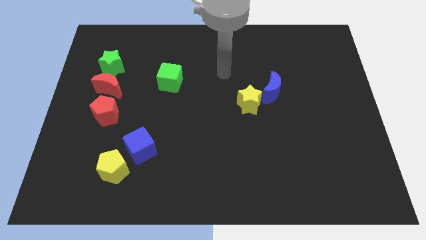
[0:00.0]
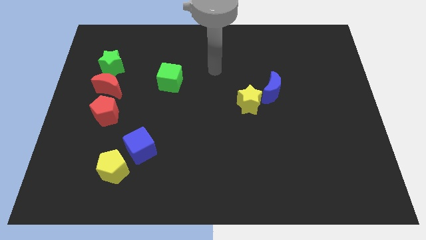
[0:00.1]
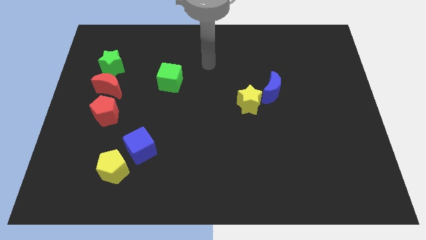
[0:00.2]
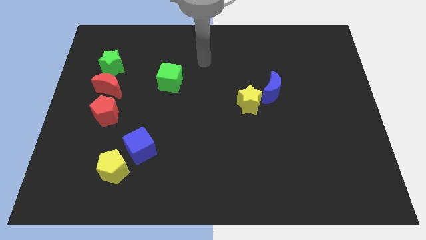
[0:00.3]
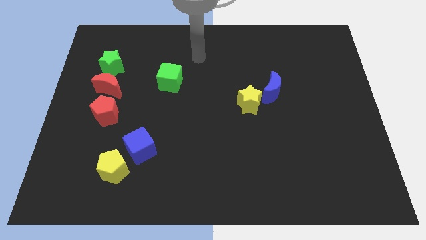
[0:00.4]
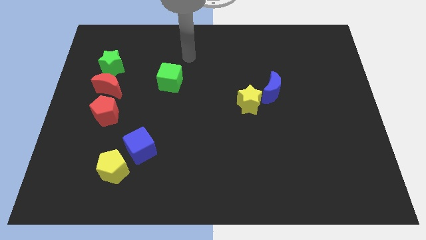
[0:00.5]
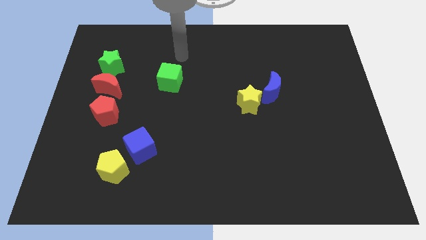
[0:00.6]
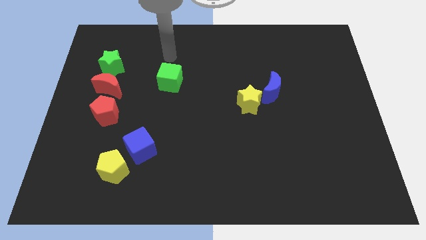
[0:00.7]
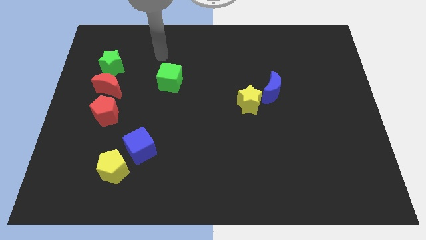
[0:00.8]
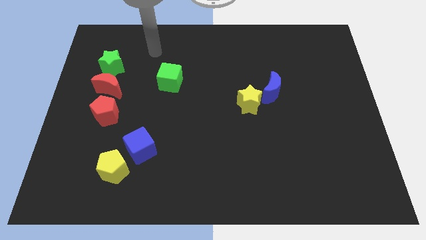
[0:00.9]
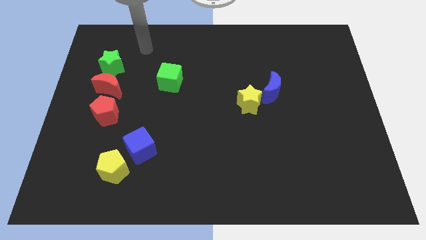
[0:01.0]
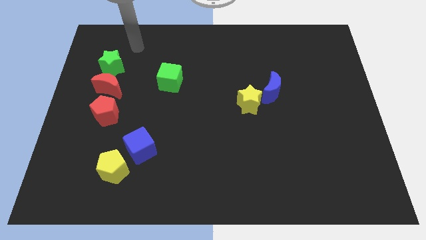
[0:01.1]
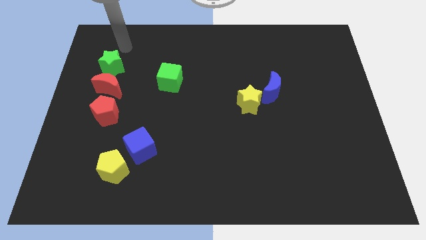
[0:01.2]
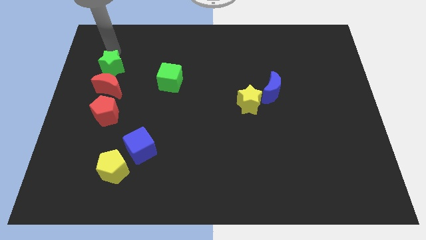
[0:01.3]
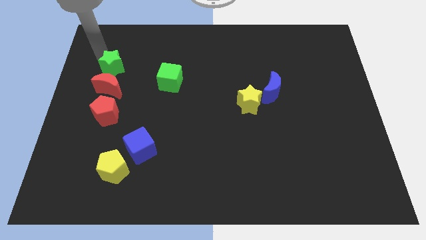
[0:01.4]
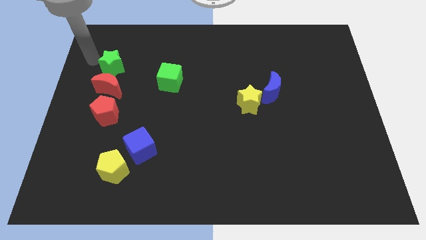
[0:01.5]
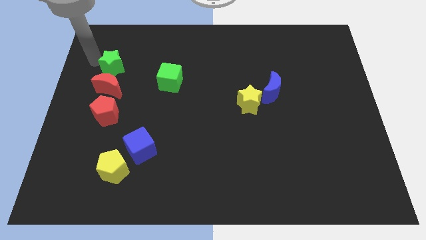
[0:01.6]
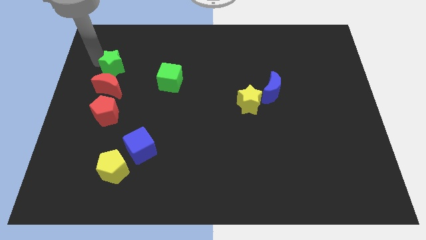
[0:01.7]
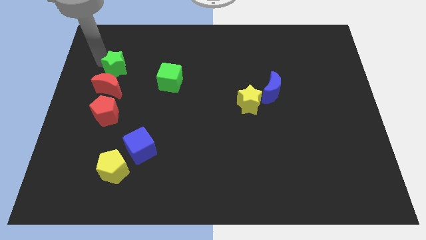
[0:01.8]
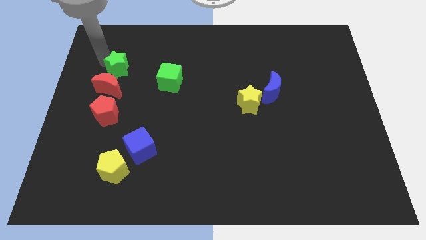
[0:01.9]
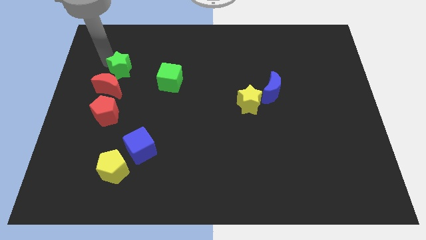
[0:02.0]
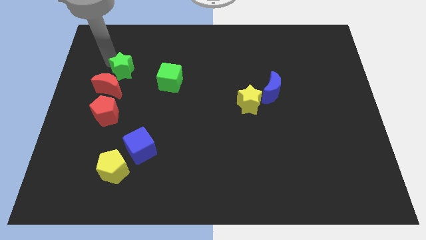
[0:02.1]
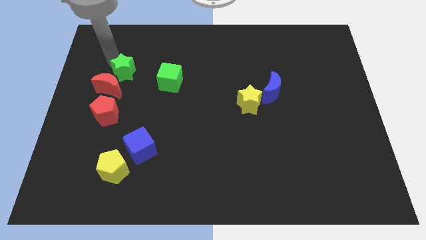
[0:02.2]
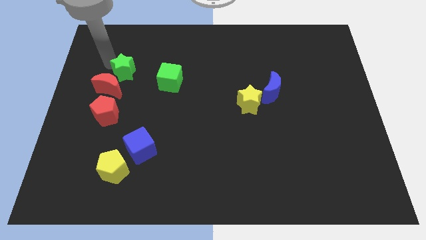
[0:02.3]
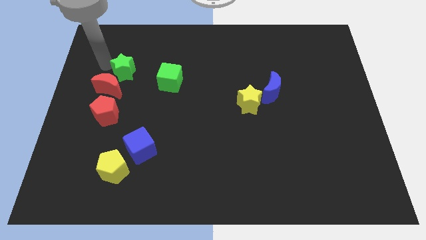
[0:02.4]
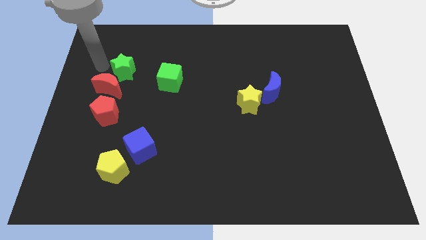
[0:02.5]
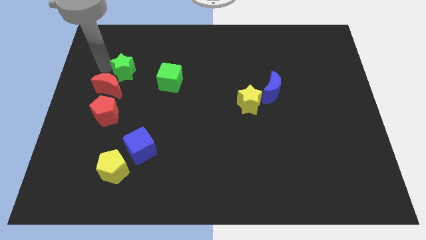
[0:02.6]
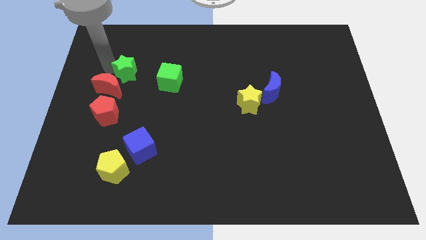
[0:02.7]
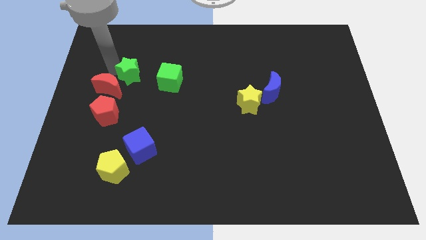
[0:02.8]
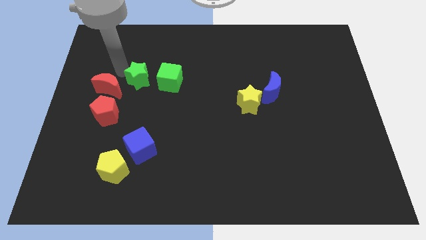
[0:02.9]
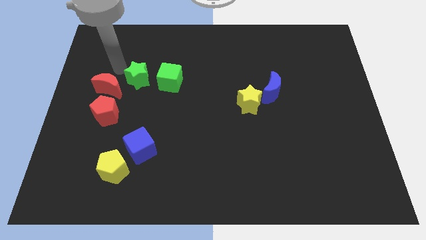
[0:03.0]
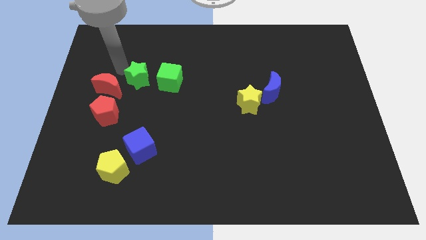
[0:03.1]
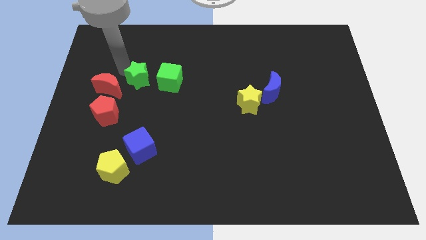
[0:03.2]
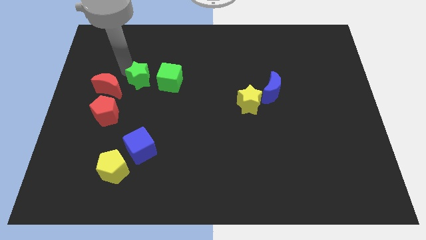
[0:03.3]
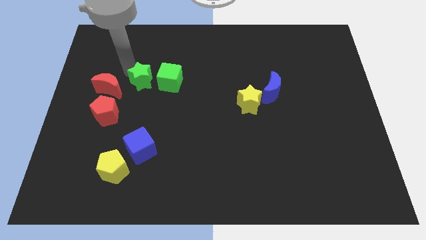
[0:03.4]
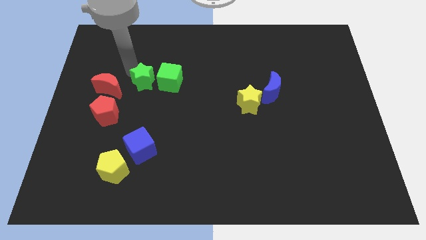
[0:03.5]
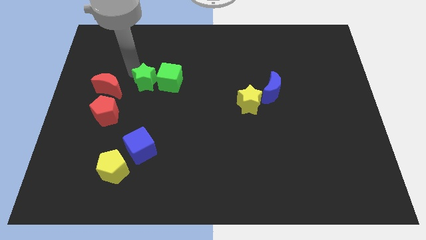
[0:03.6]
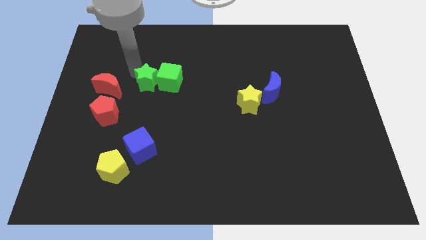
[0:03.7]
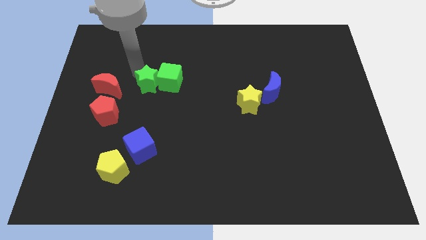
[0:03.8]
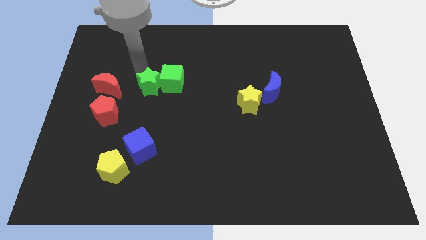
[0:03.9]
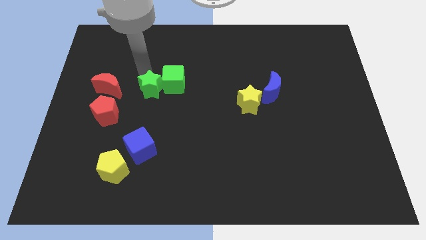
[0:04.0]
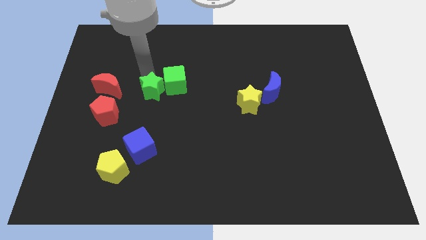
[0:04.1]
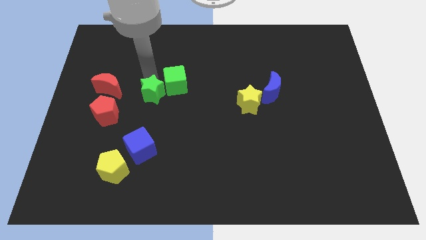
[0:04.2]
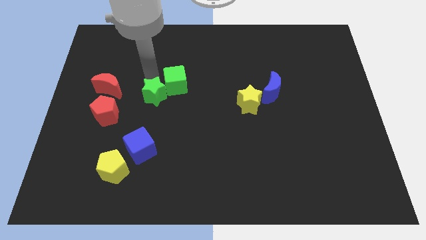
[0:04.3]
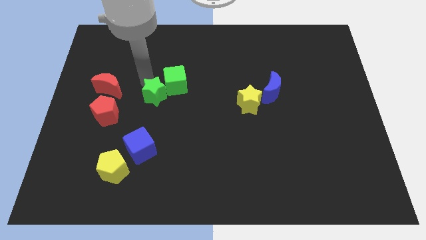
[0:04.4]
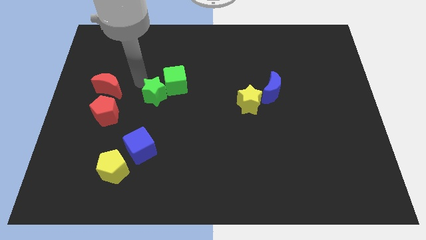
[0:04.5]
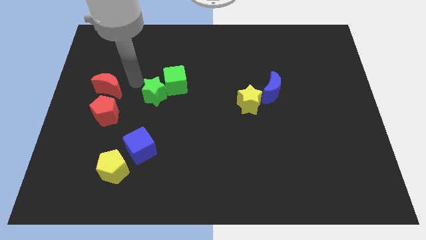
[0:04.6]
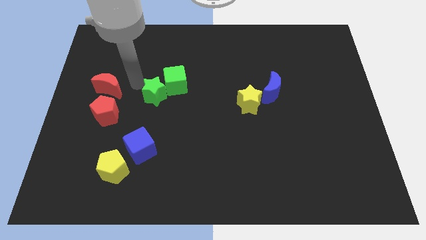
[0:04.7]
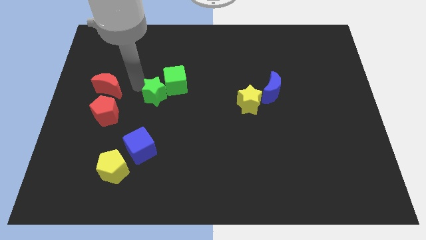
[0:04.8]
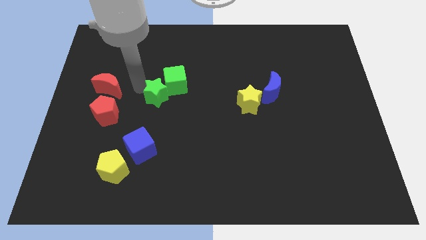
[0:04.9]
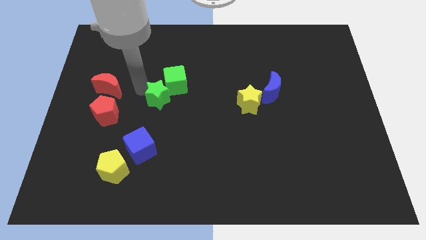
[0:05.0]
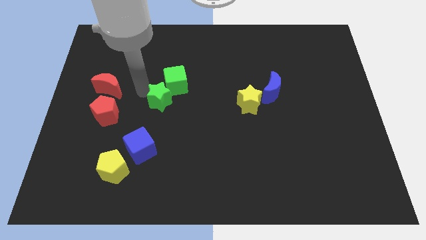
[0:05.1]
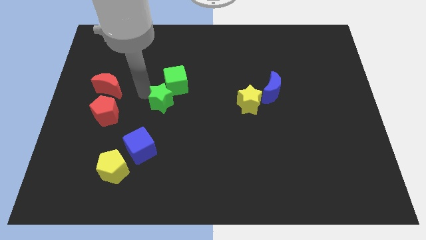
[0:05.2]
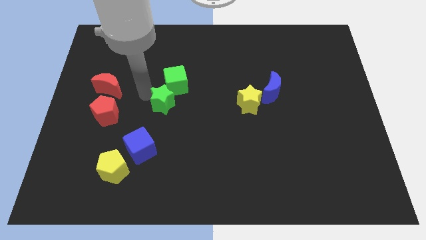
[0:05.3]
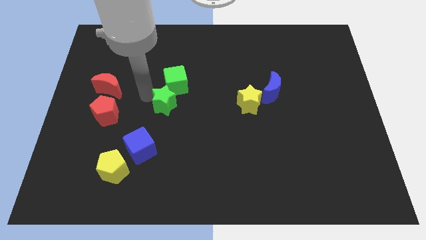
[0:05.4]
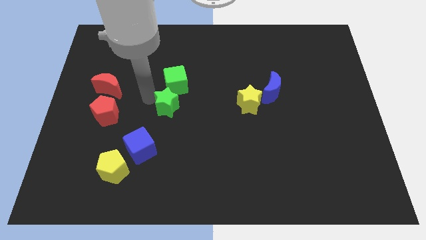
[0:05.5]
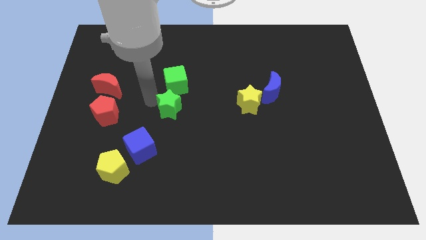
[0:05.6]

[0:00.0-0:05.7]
move the green star downwards and then right

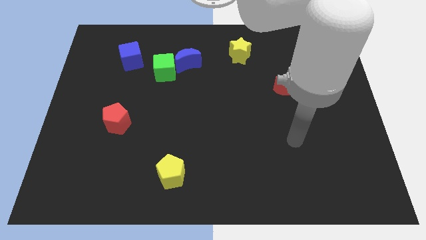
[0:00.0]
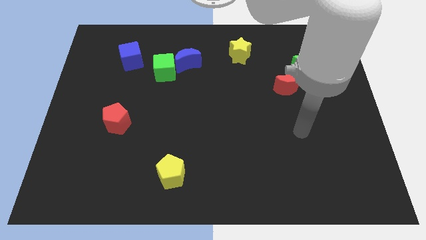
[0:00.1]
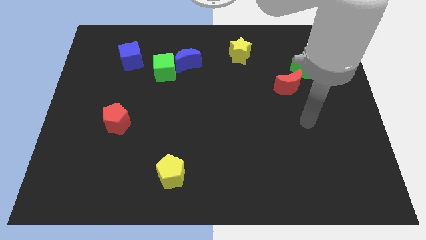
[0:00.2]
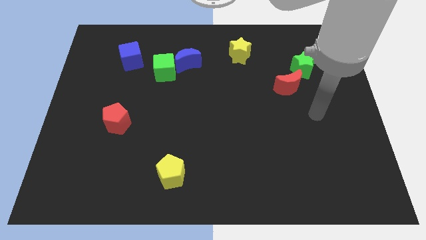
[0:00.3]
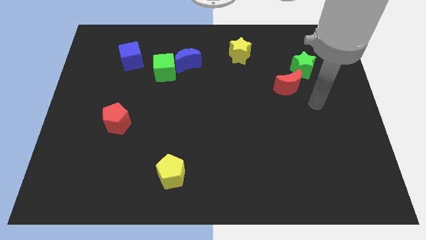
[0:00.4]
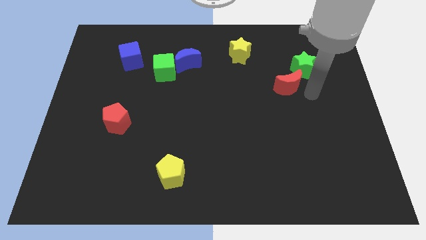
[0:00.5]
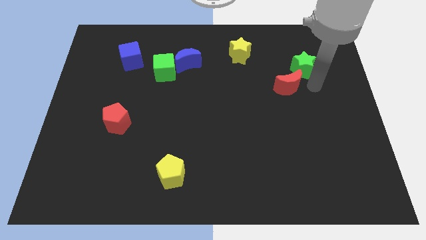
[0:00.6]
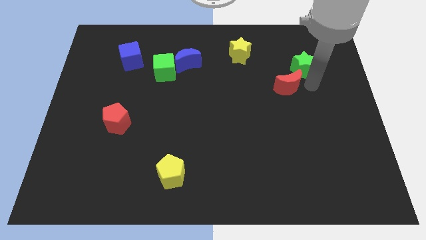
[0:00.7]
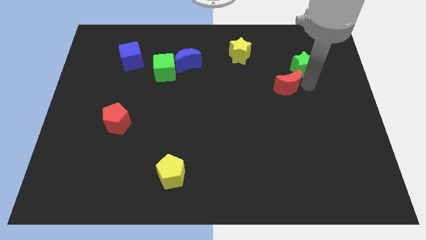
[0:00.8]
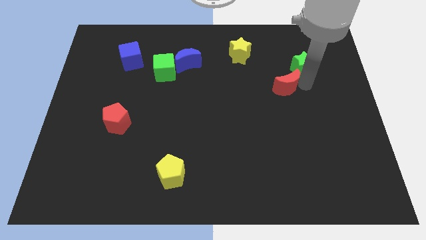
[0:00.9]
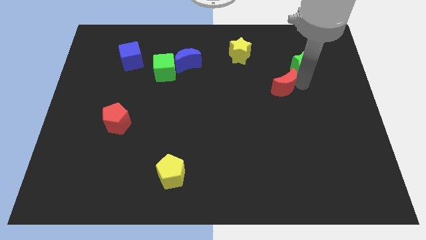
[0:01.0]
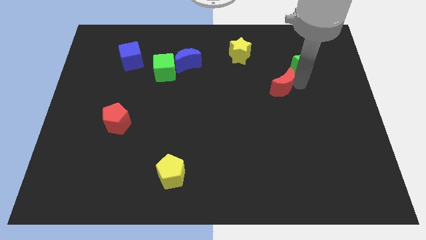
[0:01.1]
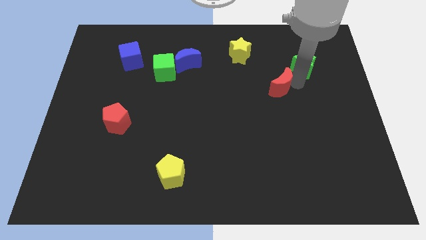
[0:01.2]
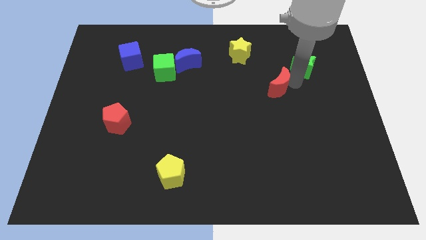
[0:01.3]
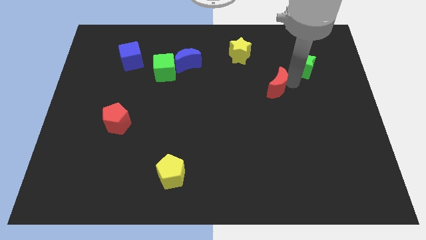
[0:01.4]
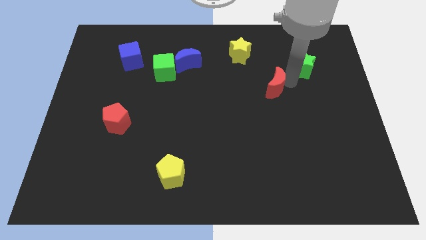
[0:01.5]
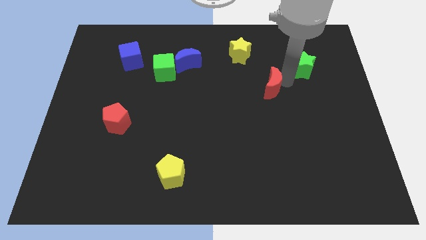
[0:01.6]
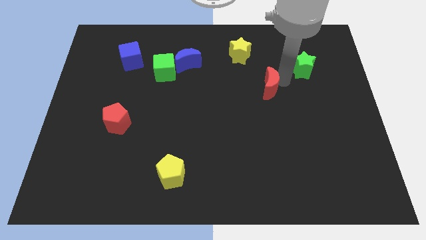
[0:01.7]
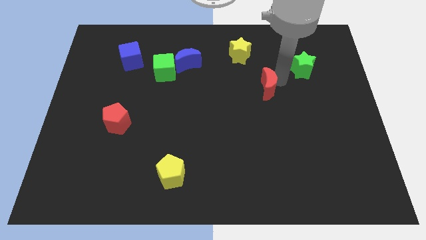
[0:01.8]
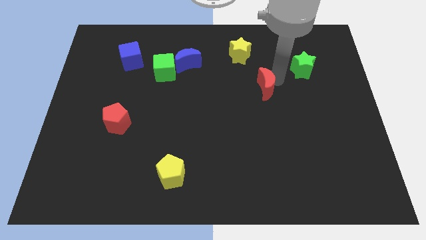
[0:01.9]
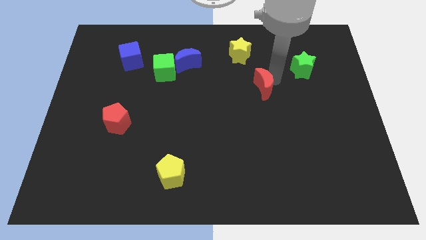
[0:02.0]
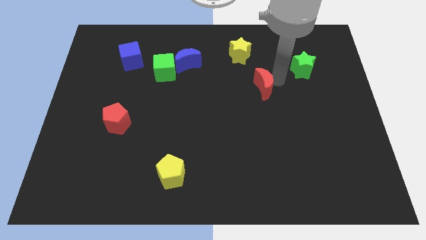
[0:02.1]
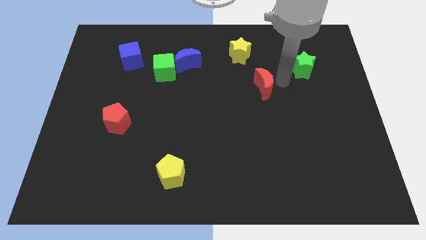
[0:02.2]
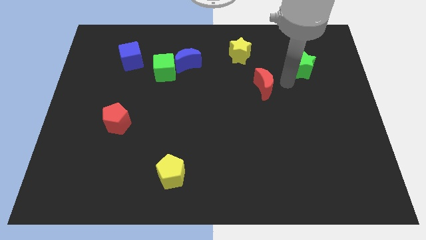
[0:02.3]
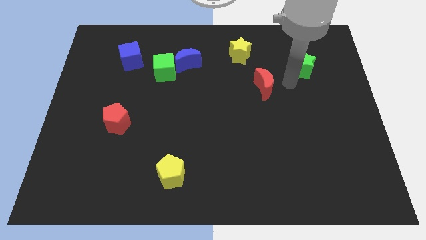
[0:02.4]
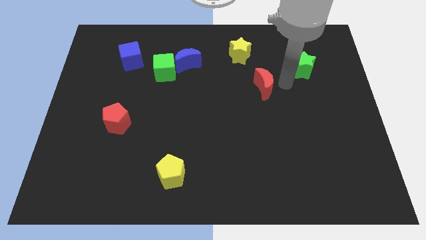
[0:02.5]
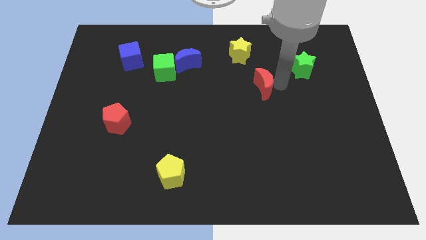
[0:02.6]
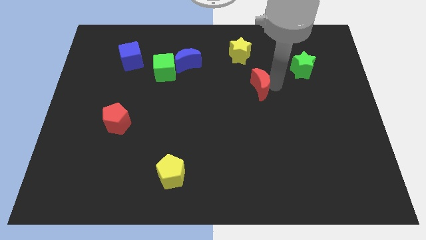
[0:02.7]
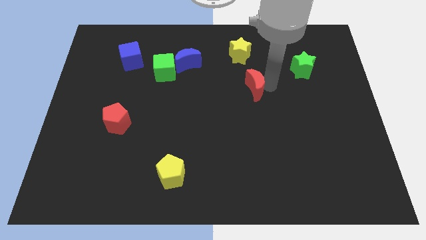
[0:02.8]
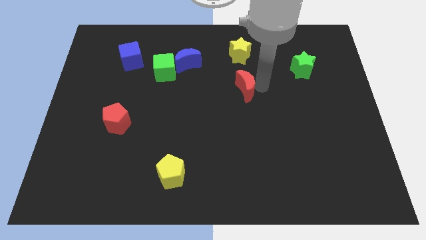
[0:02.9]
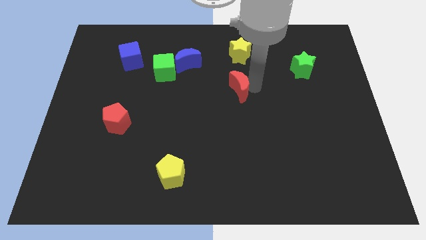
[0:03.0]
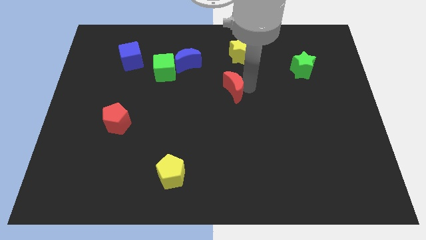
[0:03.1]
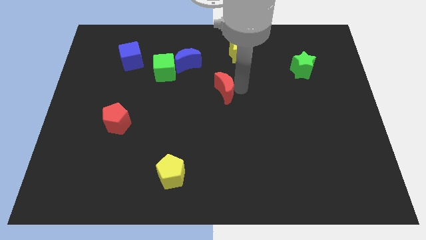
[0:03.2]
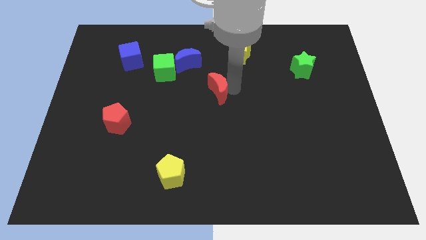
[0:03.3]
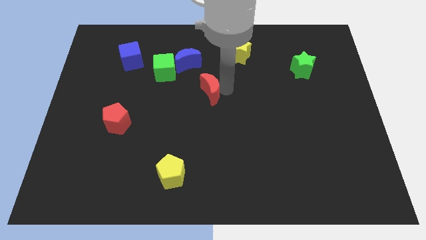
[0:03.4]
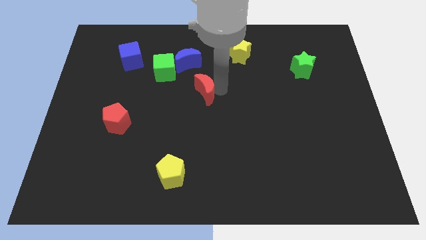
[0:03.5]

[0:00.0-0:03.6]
move the red moon left
